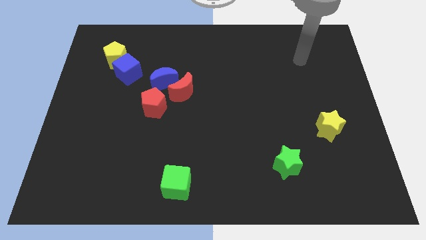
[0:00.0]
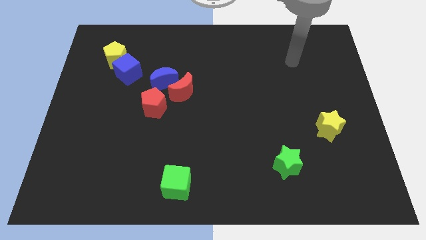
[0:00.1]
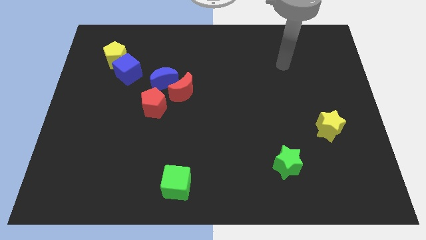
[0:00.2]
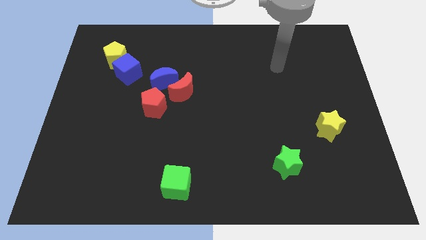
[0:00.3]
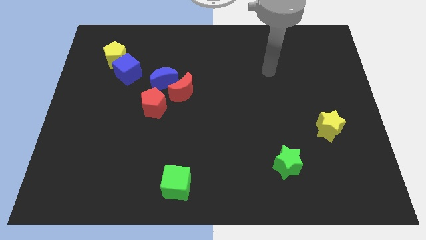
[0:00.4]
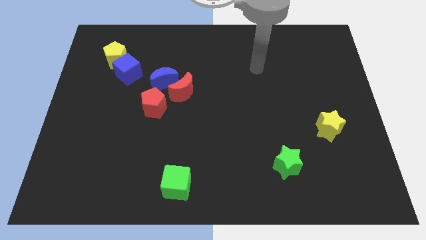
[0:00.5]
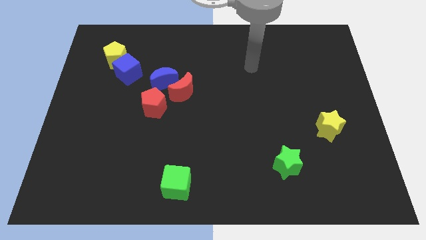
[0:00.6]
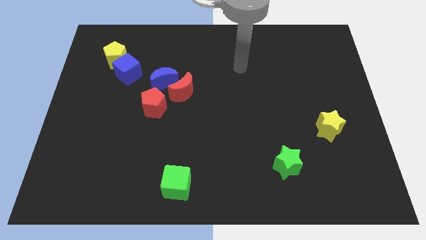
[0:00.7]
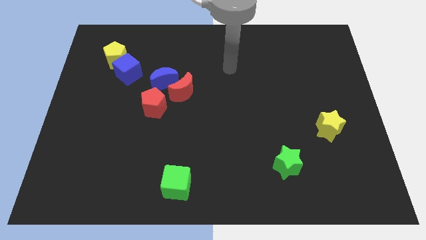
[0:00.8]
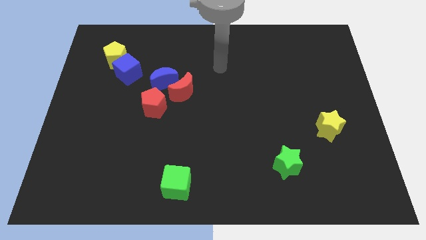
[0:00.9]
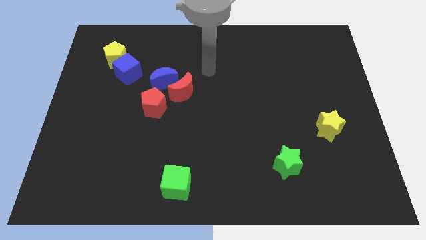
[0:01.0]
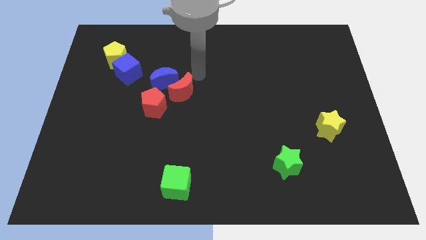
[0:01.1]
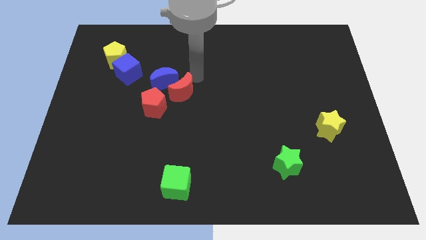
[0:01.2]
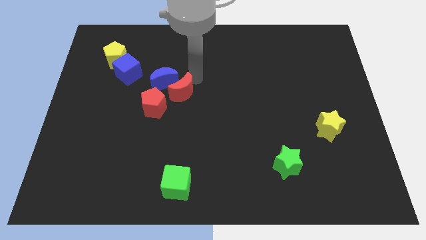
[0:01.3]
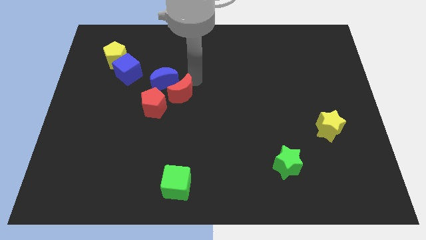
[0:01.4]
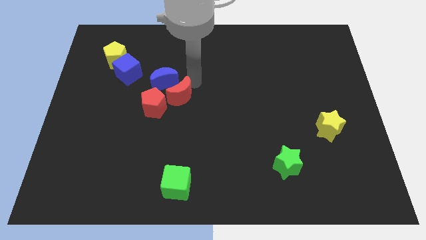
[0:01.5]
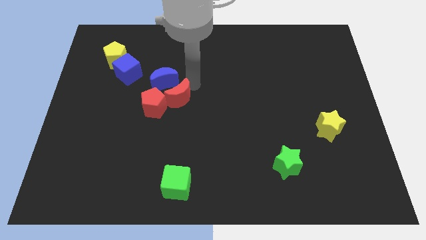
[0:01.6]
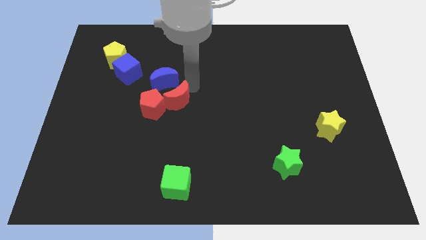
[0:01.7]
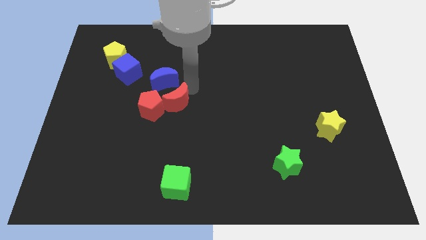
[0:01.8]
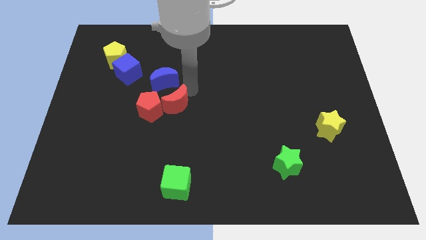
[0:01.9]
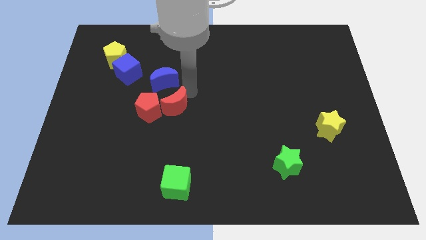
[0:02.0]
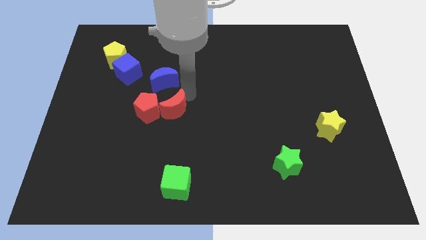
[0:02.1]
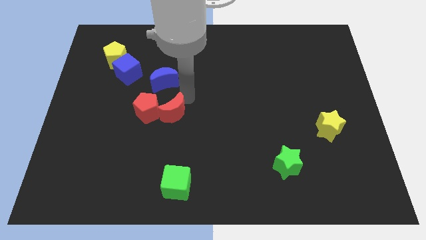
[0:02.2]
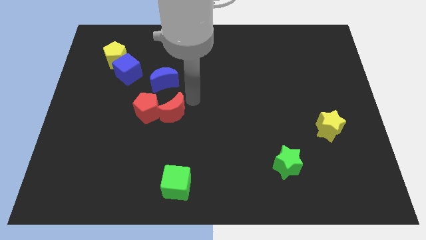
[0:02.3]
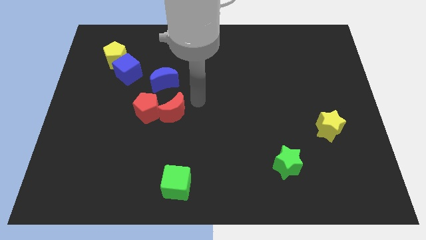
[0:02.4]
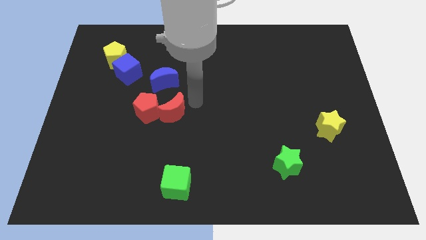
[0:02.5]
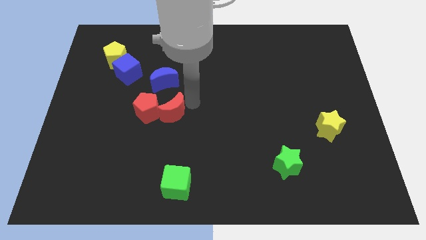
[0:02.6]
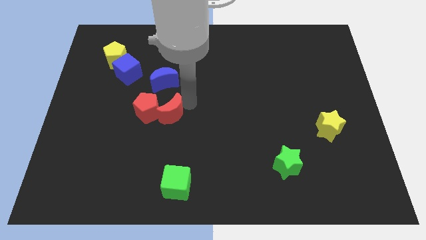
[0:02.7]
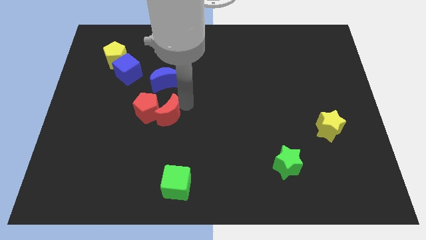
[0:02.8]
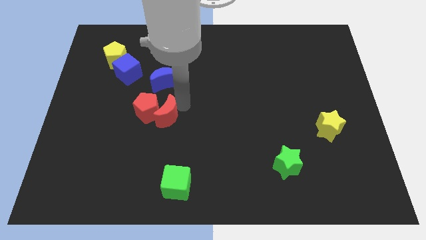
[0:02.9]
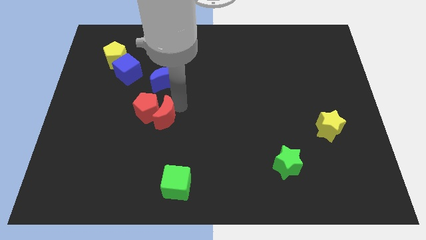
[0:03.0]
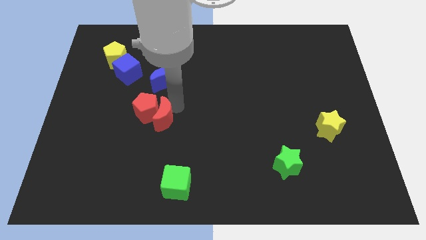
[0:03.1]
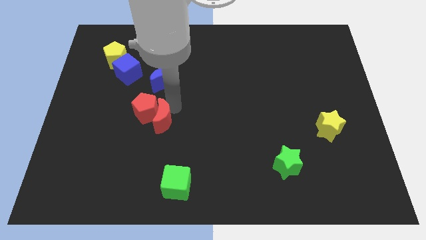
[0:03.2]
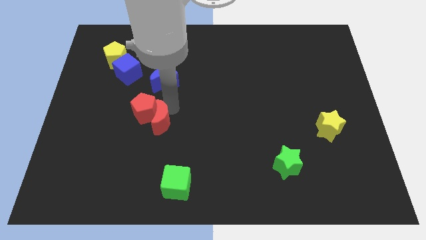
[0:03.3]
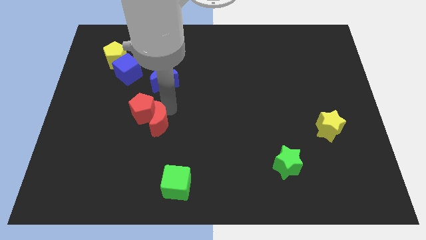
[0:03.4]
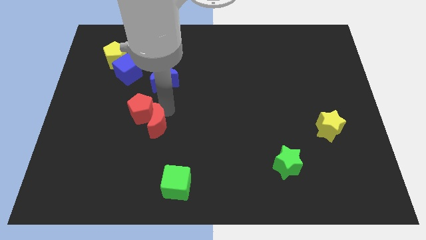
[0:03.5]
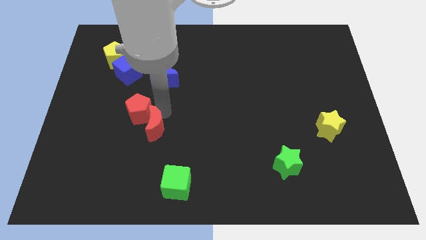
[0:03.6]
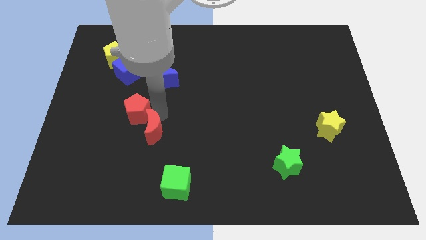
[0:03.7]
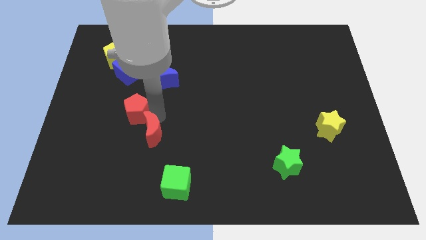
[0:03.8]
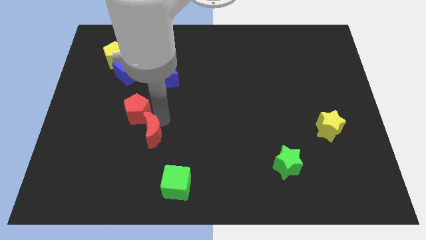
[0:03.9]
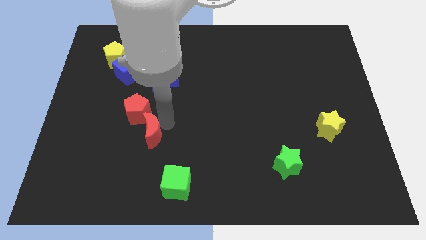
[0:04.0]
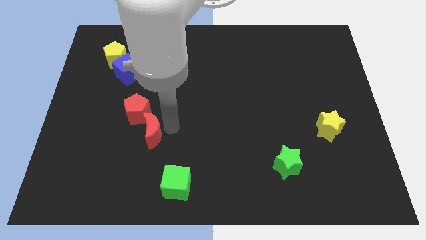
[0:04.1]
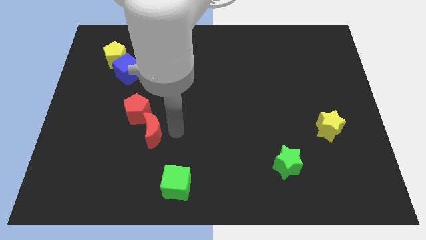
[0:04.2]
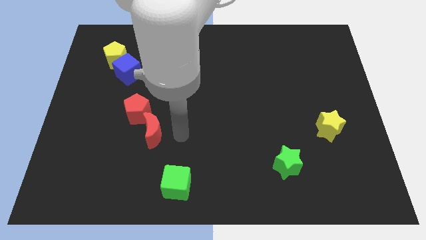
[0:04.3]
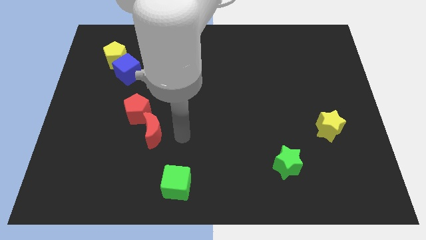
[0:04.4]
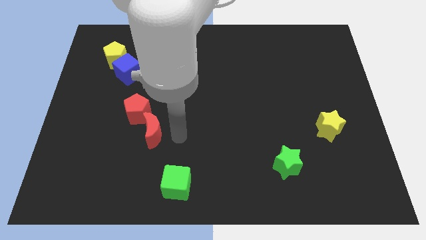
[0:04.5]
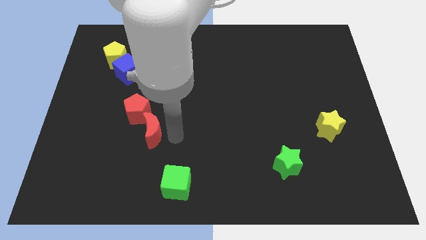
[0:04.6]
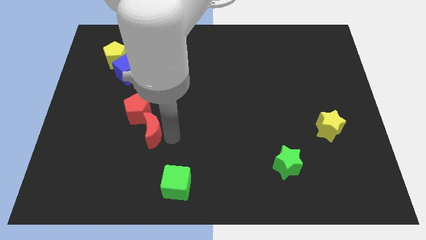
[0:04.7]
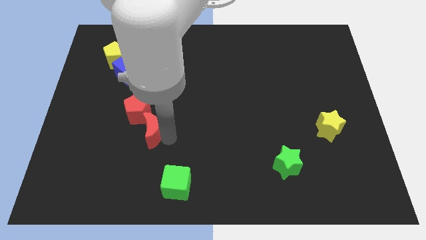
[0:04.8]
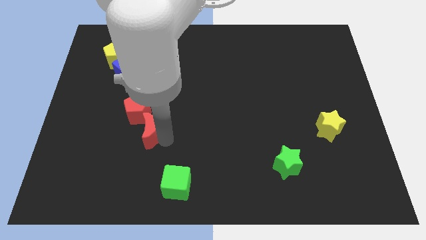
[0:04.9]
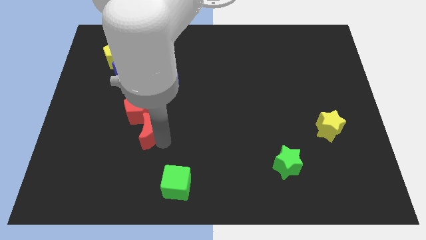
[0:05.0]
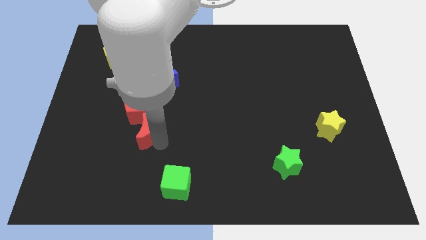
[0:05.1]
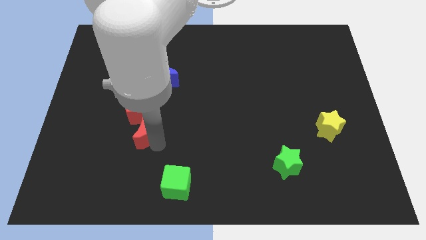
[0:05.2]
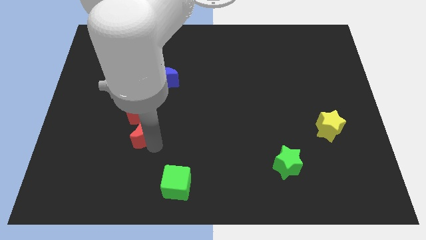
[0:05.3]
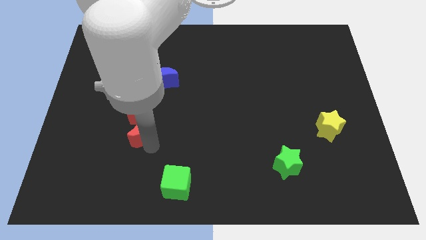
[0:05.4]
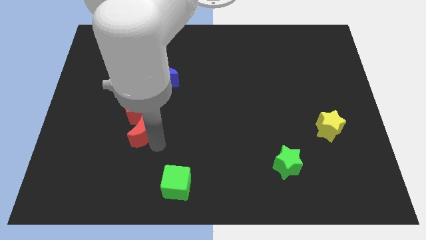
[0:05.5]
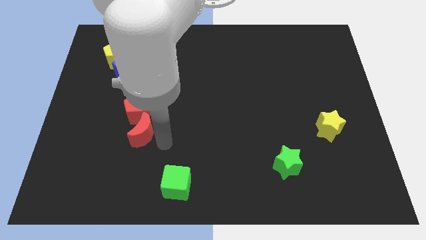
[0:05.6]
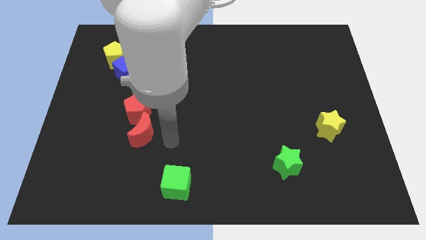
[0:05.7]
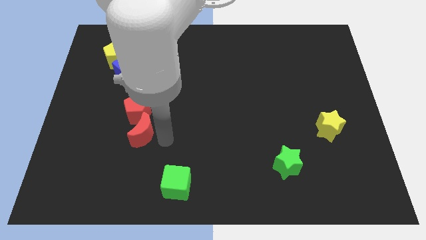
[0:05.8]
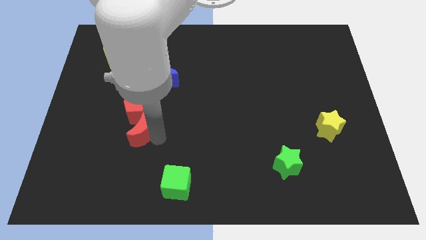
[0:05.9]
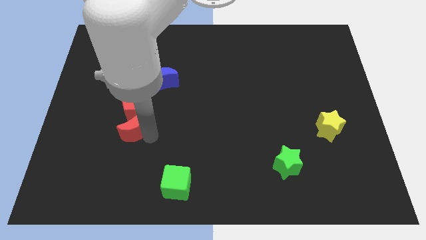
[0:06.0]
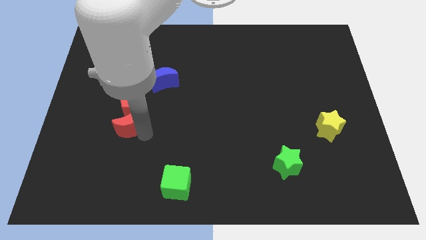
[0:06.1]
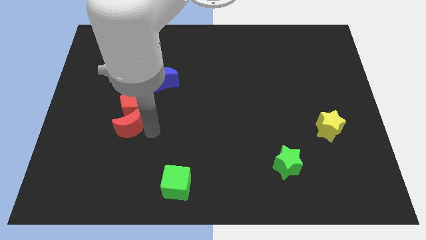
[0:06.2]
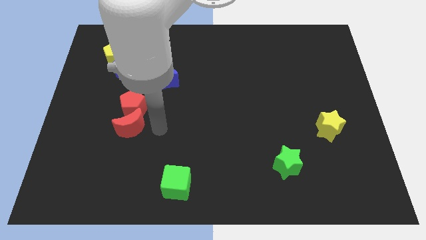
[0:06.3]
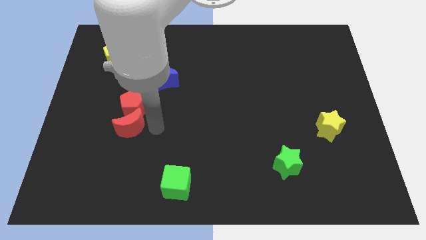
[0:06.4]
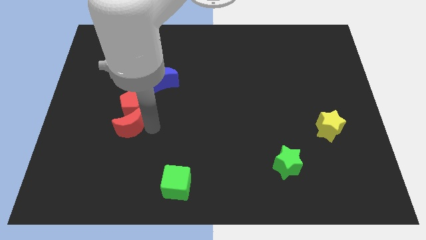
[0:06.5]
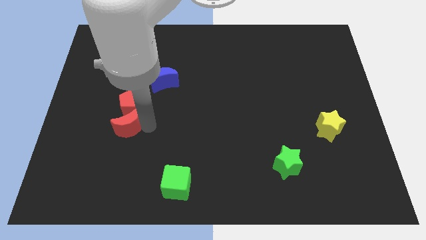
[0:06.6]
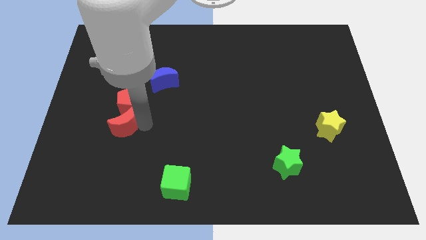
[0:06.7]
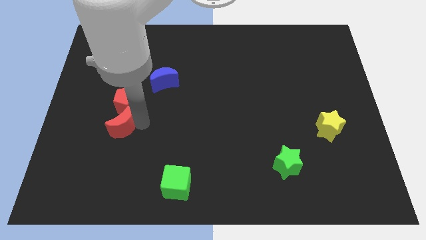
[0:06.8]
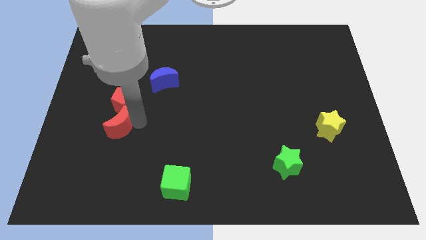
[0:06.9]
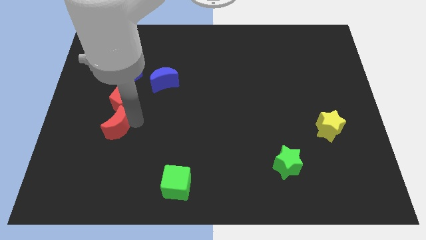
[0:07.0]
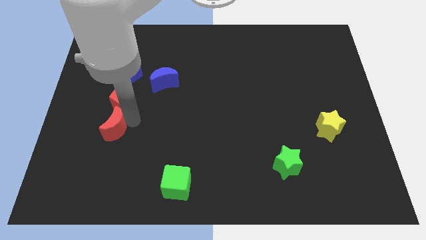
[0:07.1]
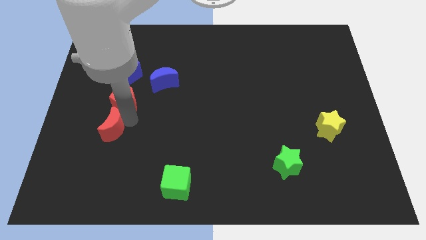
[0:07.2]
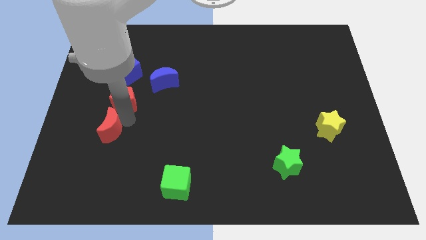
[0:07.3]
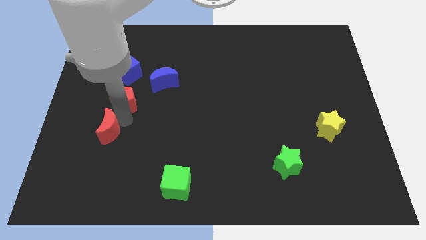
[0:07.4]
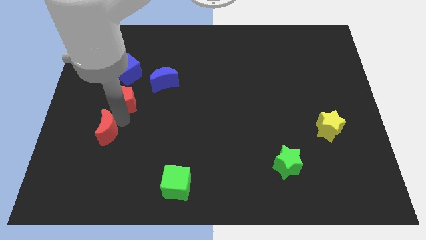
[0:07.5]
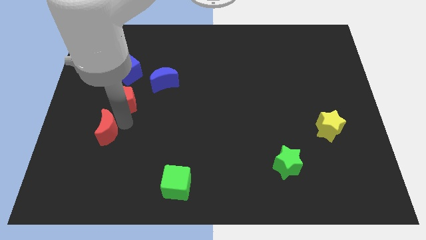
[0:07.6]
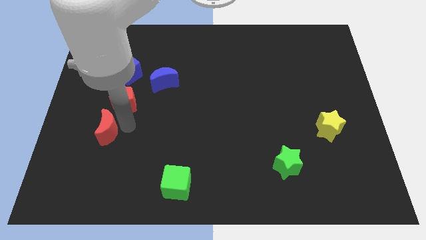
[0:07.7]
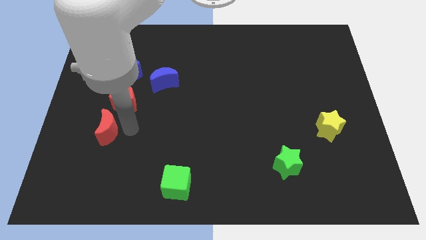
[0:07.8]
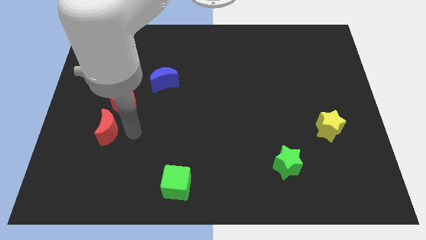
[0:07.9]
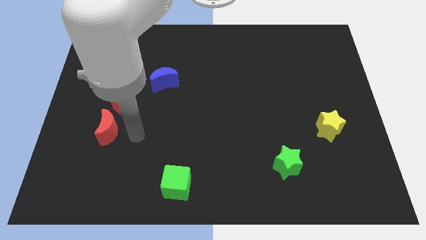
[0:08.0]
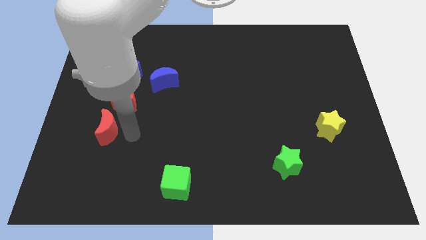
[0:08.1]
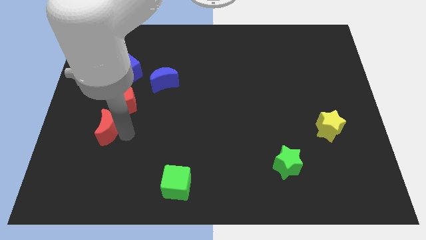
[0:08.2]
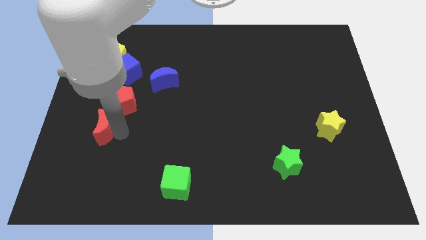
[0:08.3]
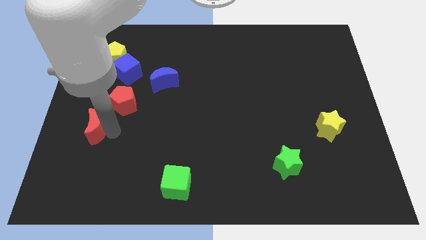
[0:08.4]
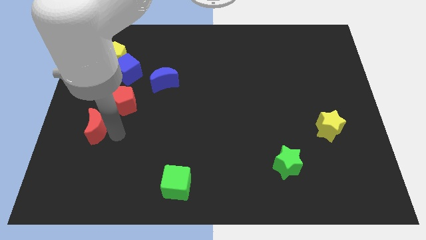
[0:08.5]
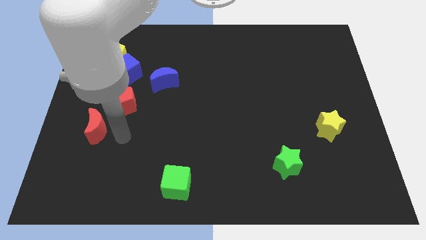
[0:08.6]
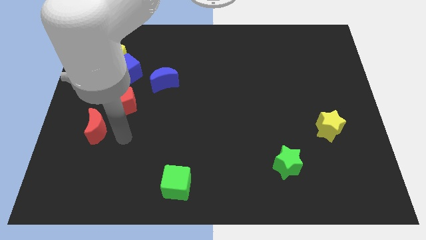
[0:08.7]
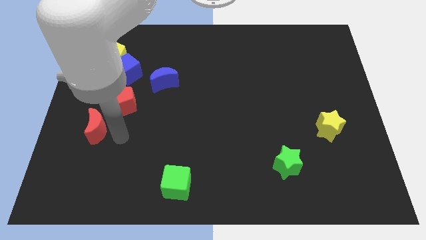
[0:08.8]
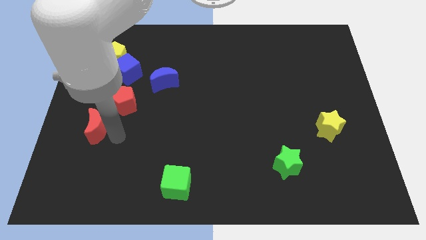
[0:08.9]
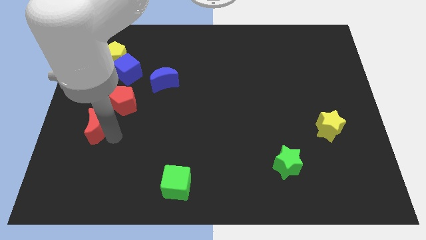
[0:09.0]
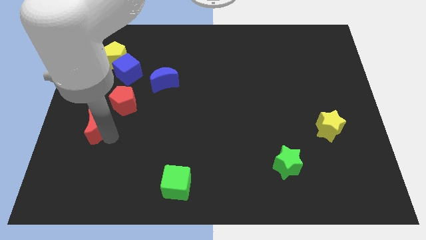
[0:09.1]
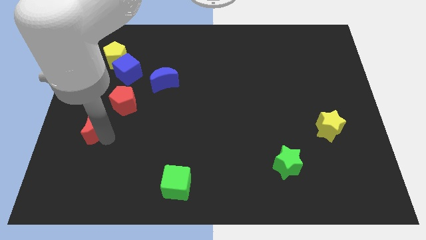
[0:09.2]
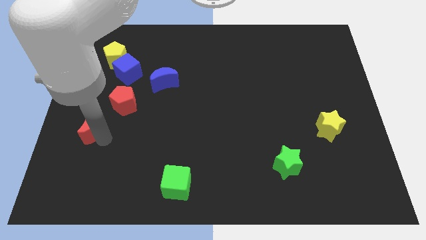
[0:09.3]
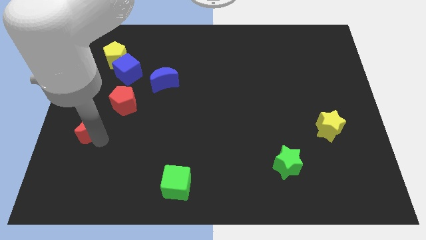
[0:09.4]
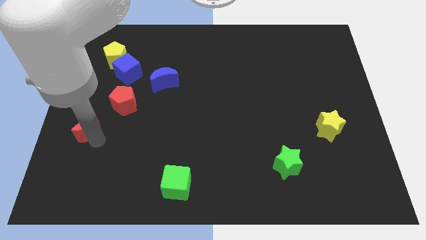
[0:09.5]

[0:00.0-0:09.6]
put the red moon to the left side of the board
